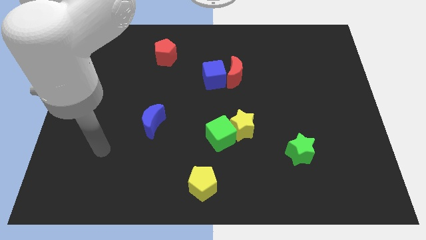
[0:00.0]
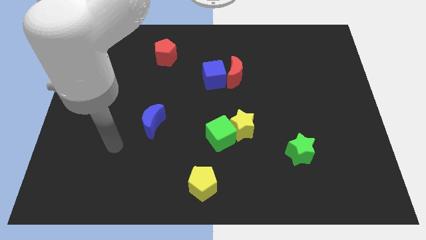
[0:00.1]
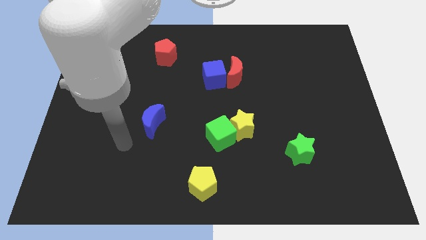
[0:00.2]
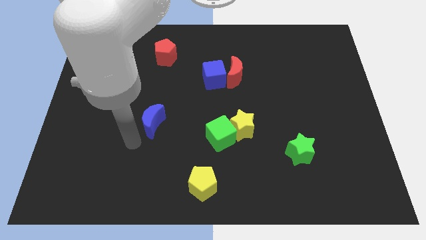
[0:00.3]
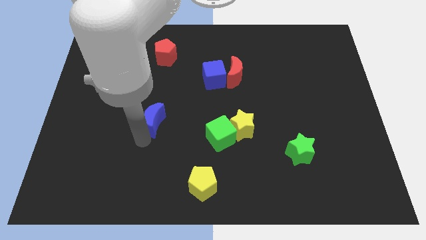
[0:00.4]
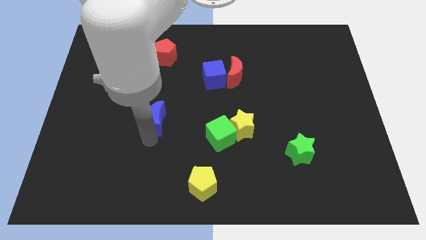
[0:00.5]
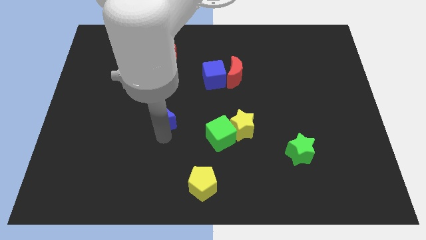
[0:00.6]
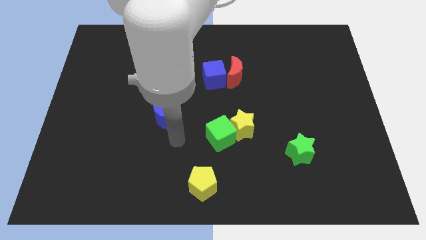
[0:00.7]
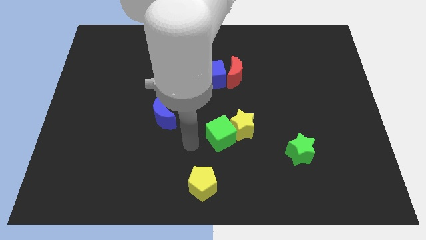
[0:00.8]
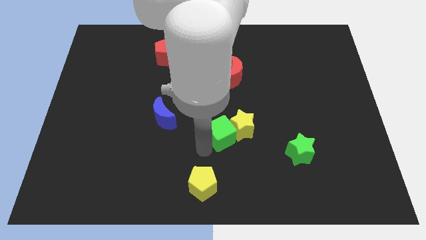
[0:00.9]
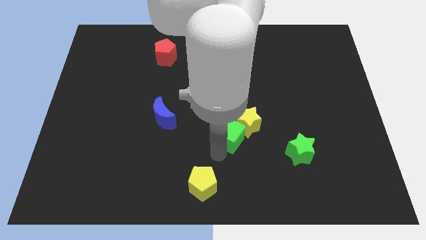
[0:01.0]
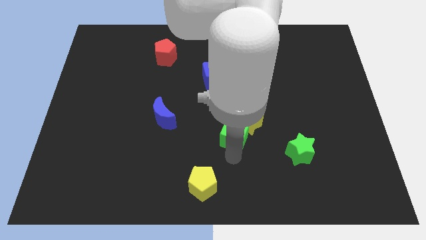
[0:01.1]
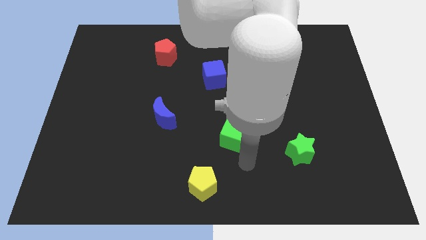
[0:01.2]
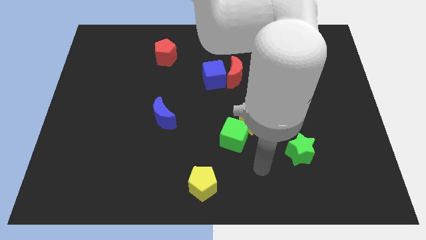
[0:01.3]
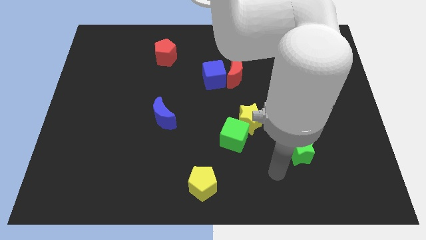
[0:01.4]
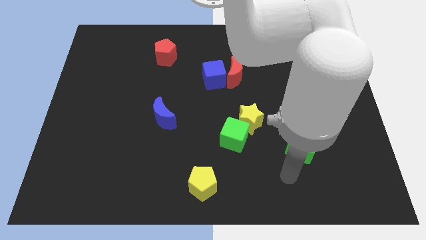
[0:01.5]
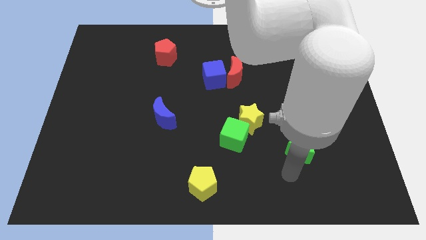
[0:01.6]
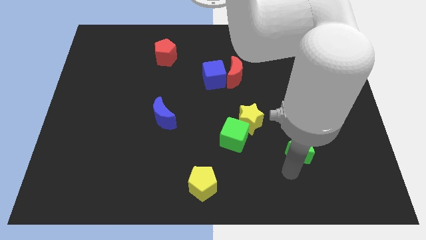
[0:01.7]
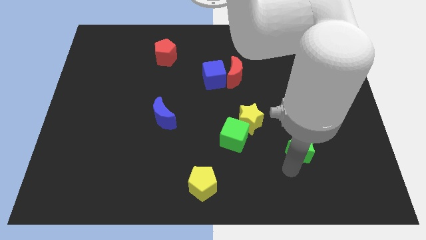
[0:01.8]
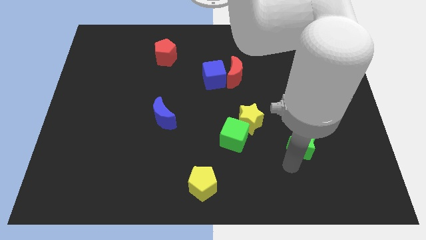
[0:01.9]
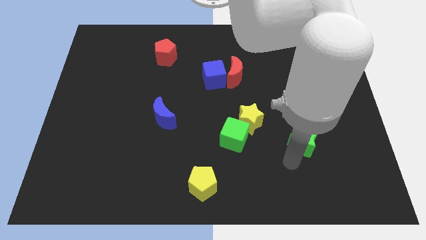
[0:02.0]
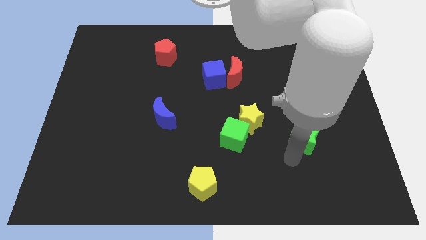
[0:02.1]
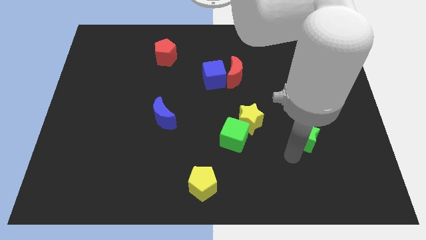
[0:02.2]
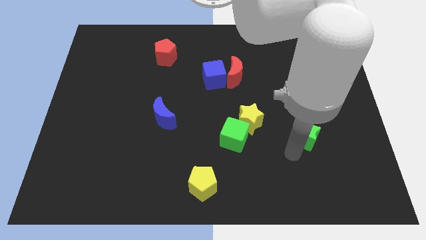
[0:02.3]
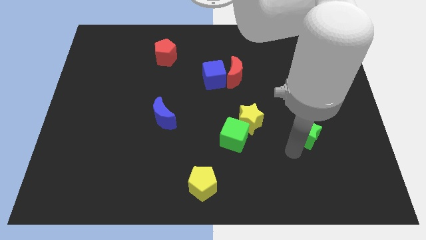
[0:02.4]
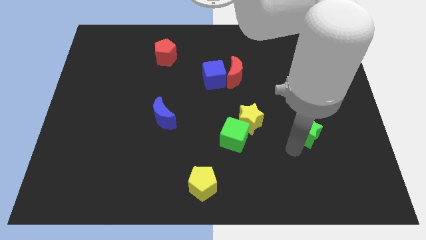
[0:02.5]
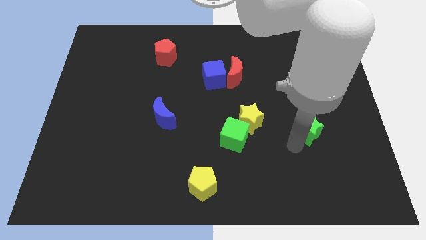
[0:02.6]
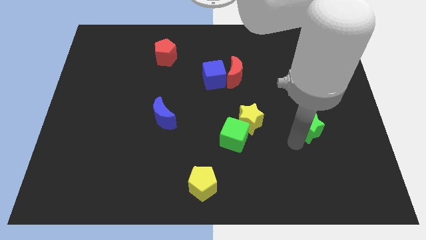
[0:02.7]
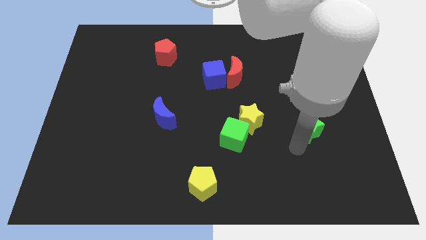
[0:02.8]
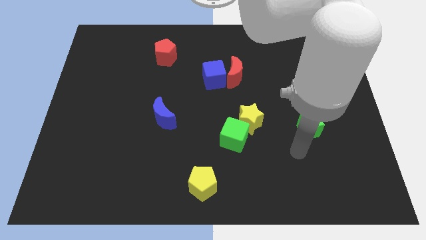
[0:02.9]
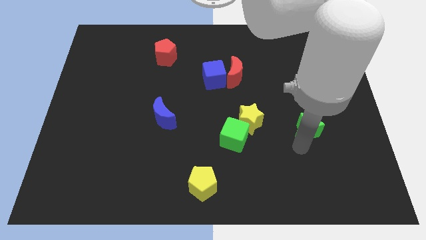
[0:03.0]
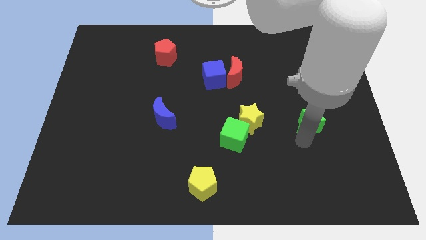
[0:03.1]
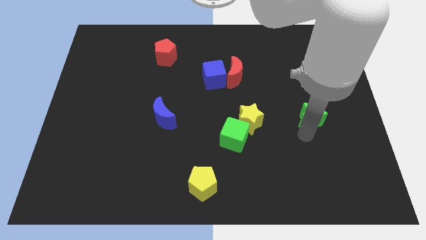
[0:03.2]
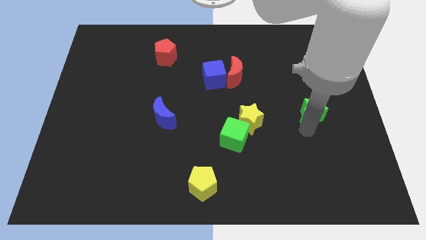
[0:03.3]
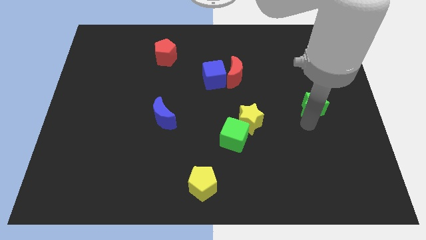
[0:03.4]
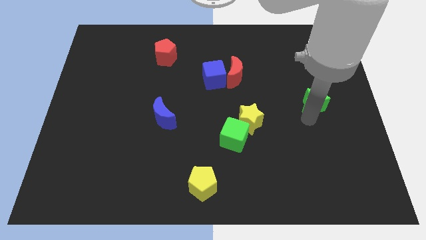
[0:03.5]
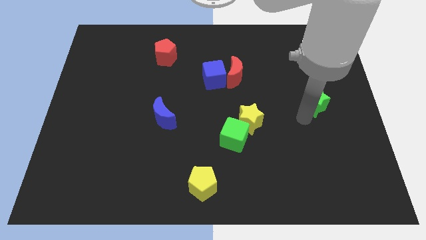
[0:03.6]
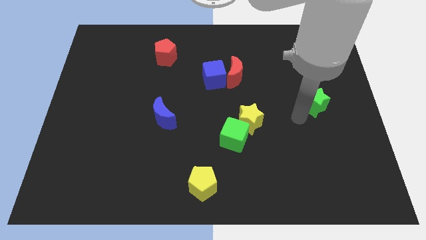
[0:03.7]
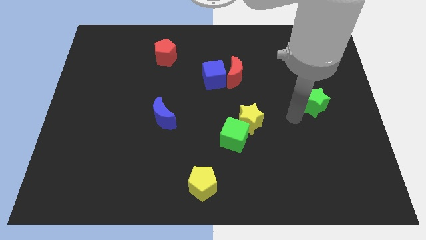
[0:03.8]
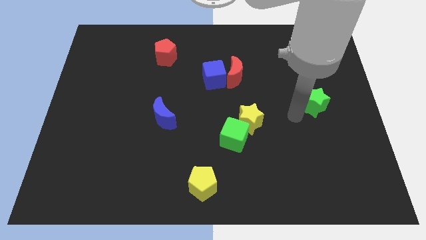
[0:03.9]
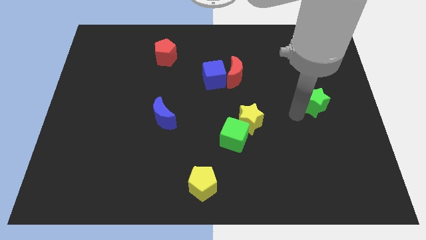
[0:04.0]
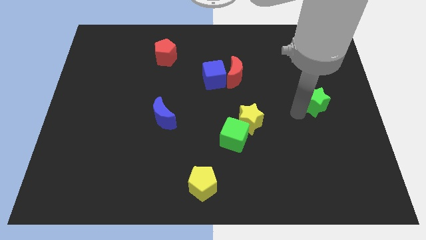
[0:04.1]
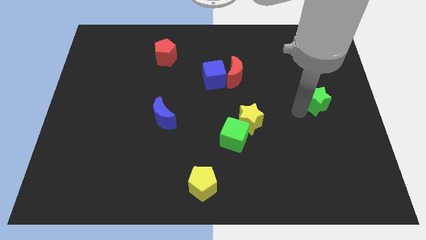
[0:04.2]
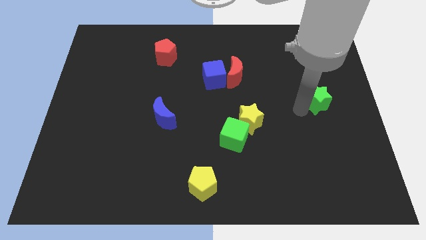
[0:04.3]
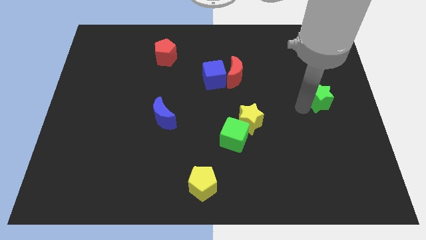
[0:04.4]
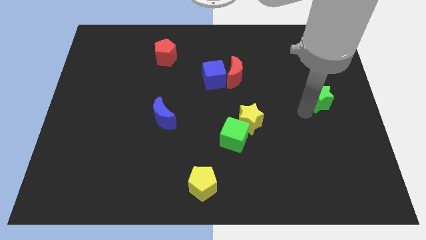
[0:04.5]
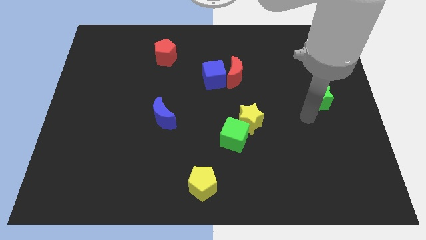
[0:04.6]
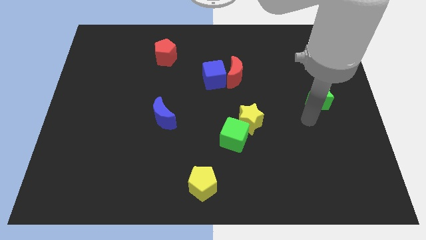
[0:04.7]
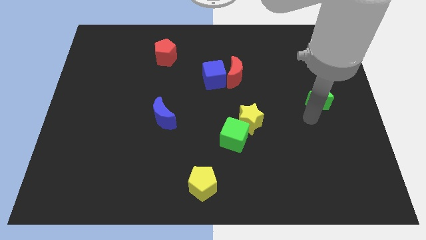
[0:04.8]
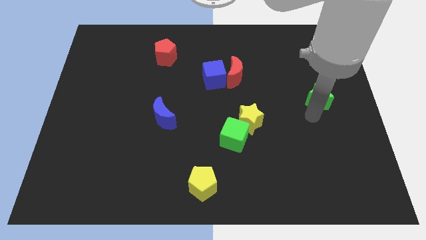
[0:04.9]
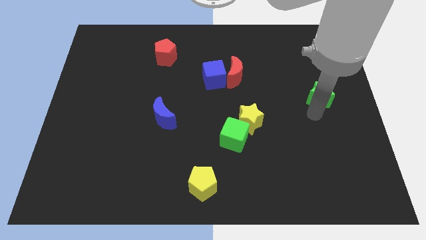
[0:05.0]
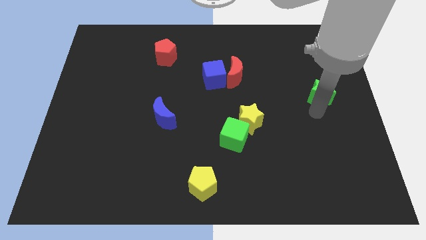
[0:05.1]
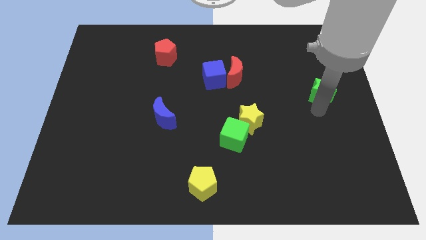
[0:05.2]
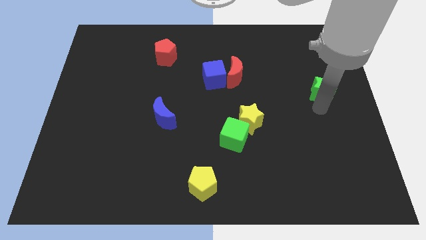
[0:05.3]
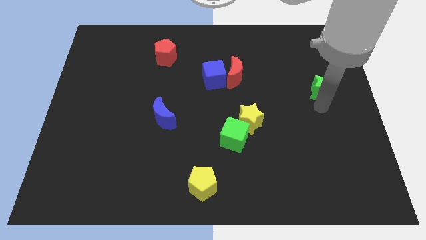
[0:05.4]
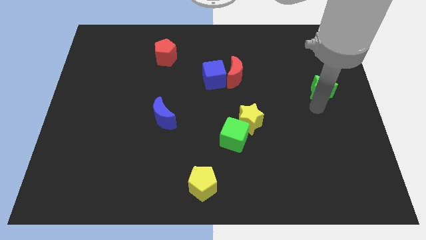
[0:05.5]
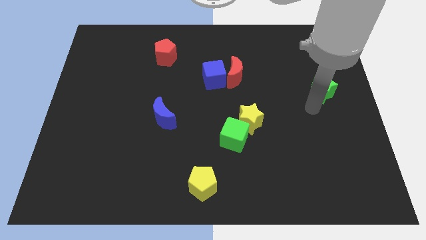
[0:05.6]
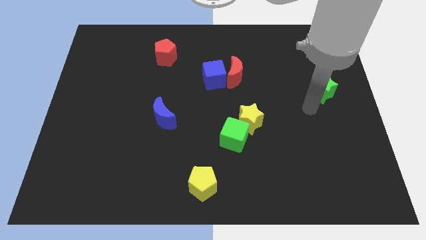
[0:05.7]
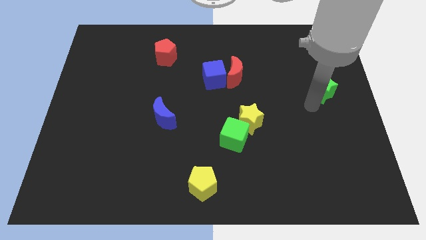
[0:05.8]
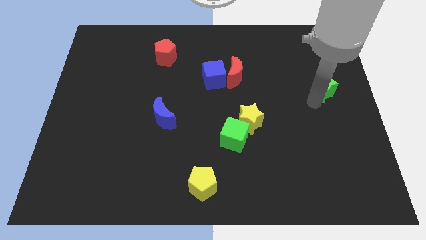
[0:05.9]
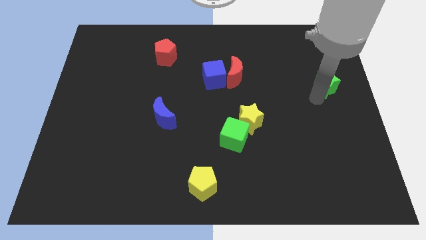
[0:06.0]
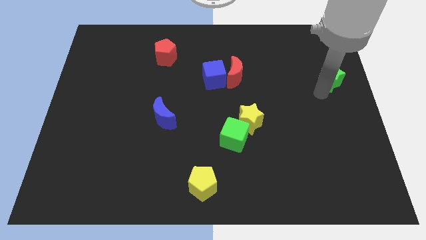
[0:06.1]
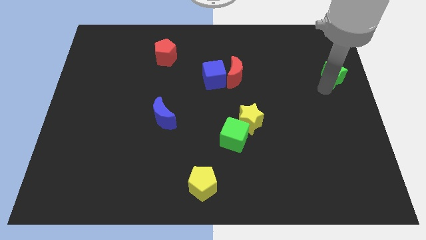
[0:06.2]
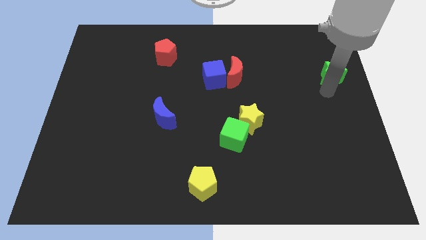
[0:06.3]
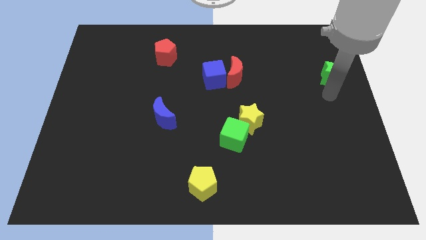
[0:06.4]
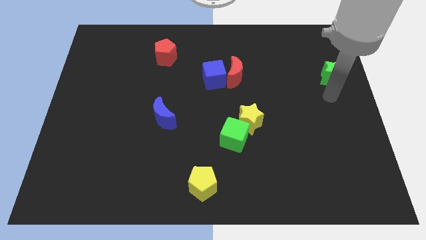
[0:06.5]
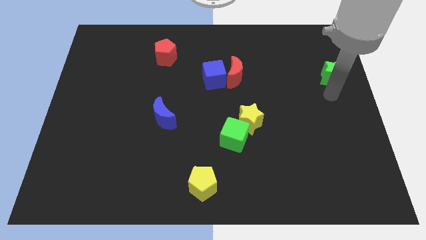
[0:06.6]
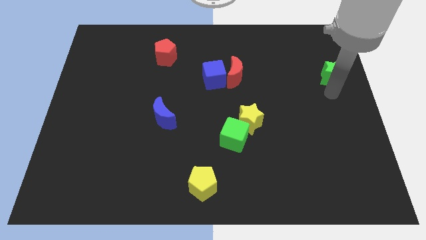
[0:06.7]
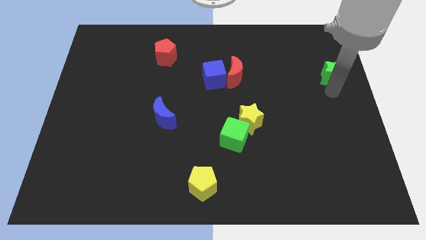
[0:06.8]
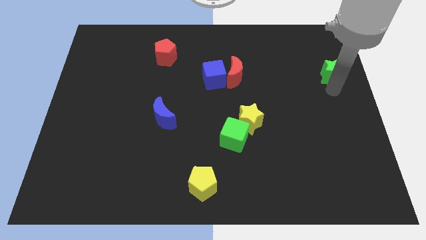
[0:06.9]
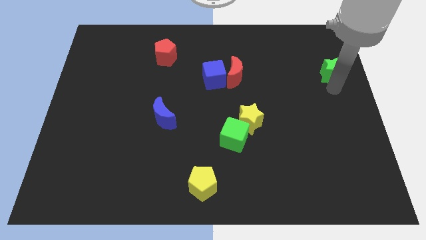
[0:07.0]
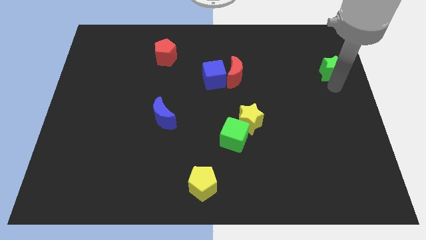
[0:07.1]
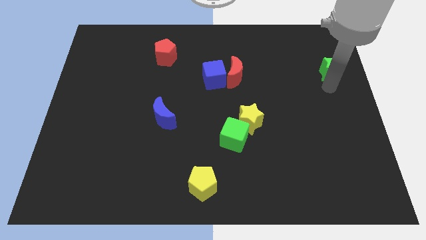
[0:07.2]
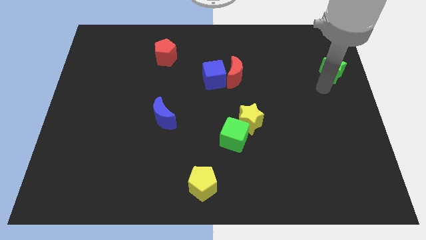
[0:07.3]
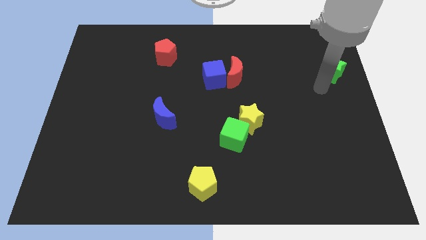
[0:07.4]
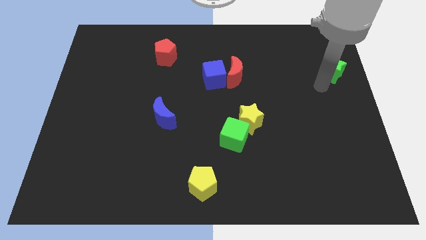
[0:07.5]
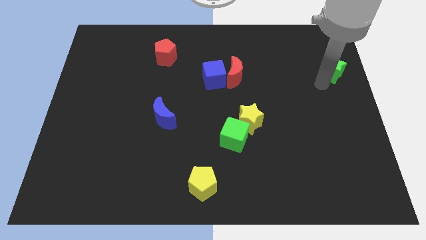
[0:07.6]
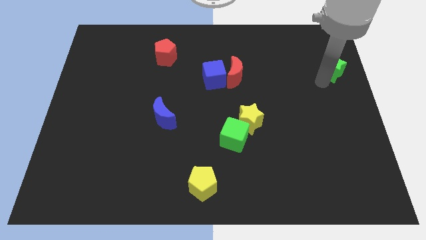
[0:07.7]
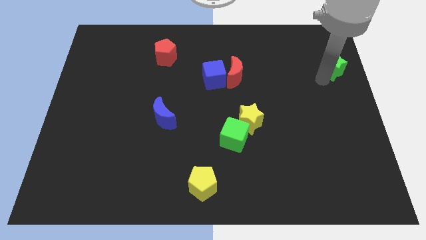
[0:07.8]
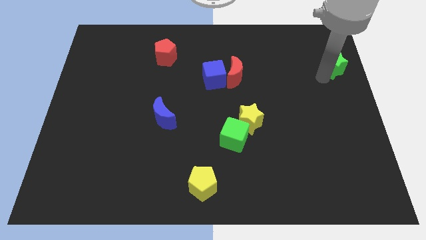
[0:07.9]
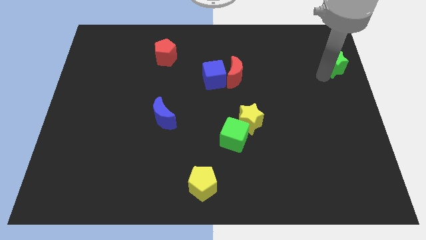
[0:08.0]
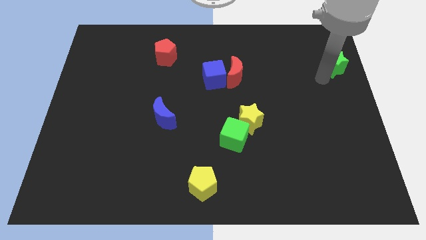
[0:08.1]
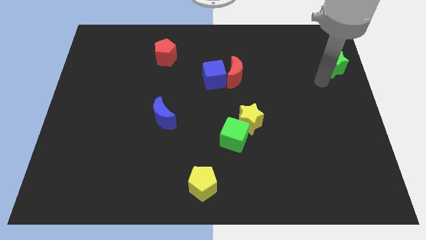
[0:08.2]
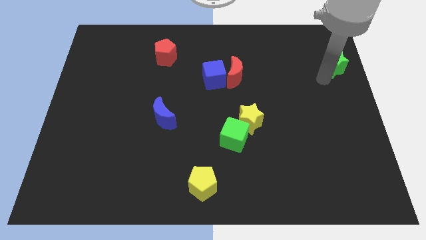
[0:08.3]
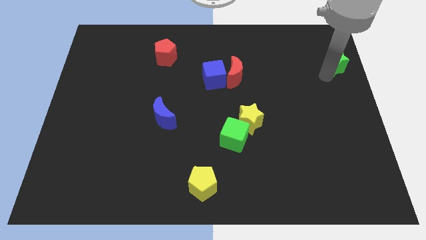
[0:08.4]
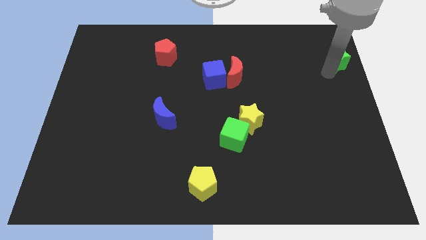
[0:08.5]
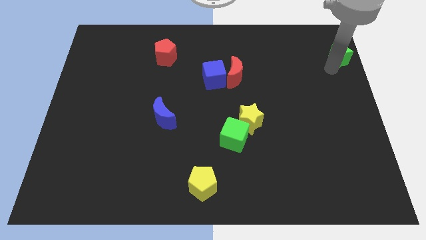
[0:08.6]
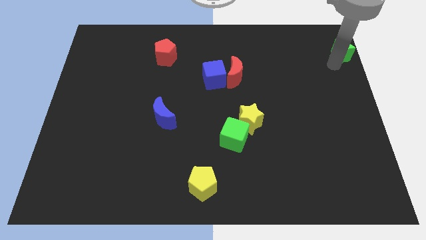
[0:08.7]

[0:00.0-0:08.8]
push the green star to the upper right corner
